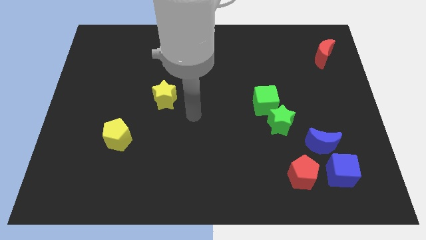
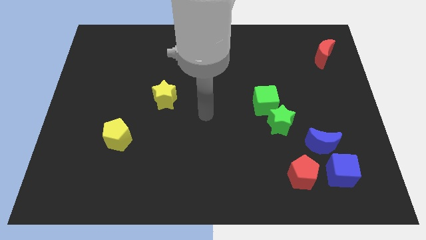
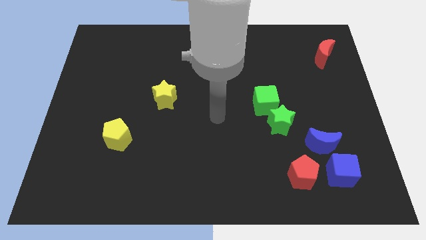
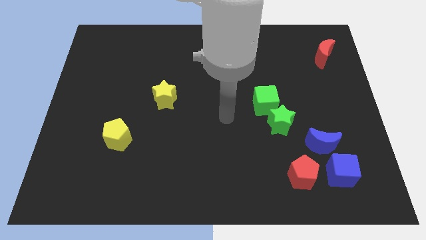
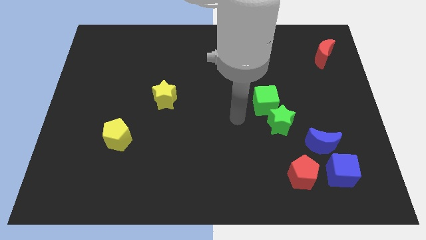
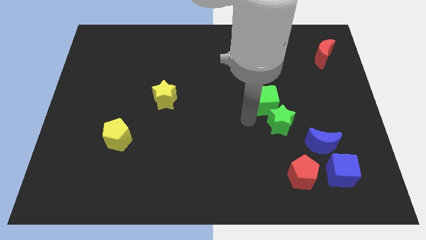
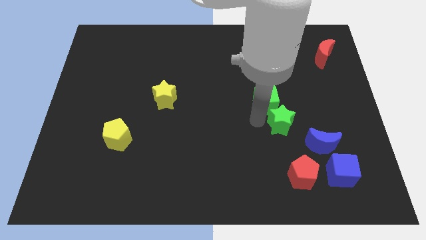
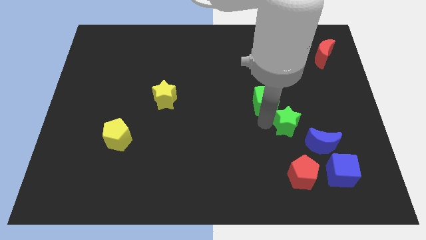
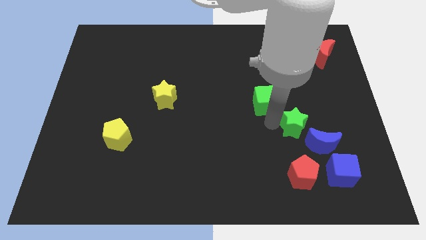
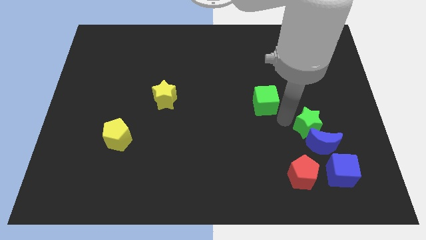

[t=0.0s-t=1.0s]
separate the green cube from the green star

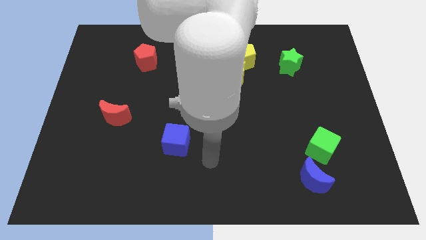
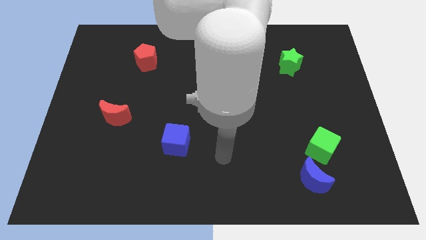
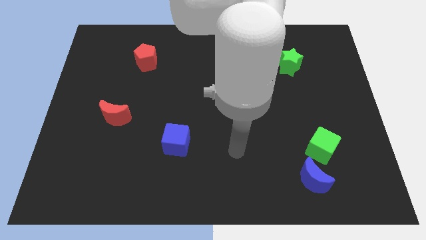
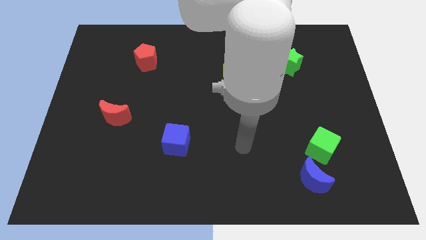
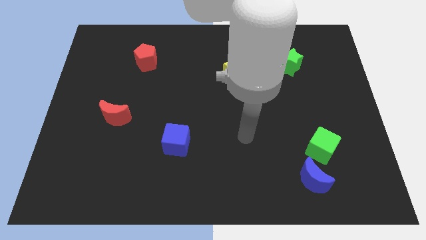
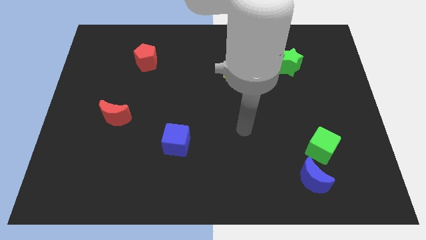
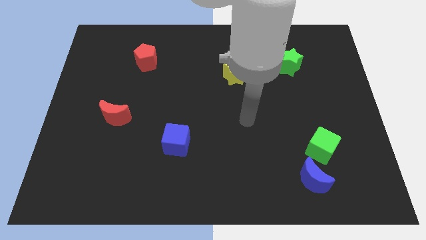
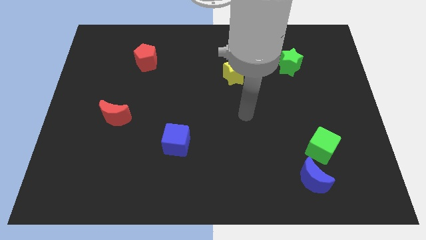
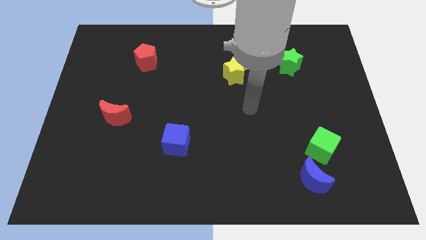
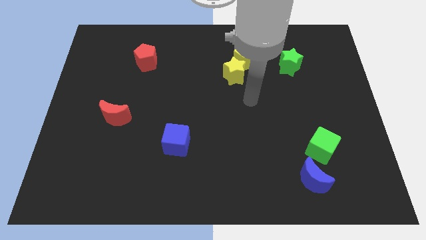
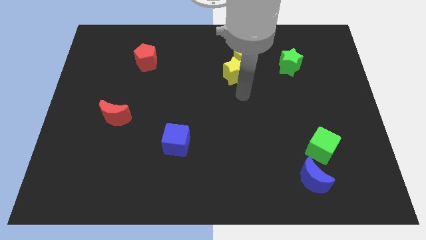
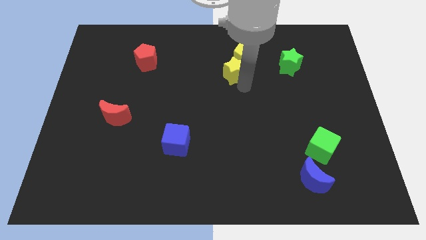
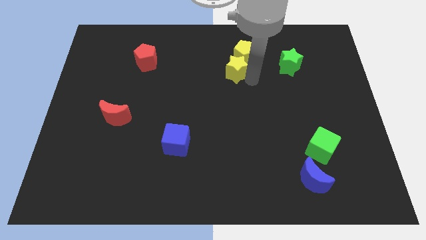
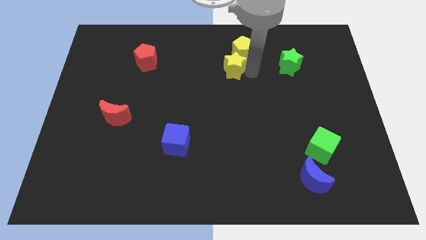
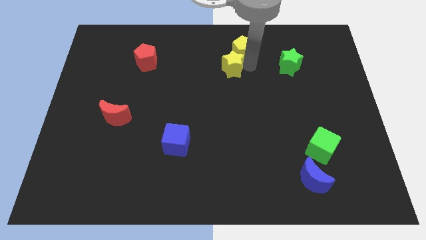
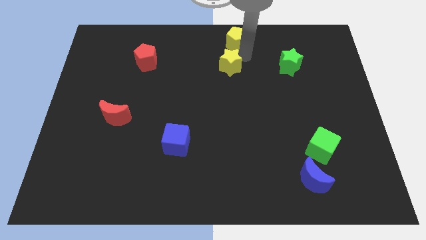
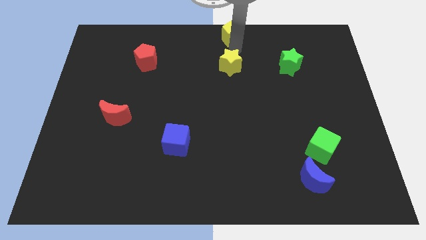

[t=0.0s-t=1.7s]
pull the yellow star apart from the yellow pentagon

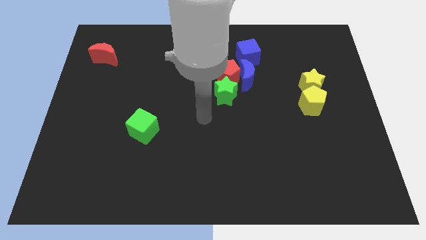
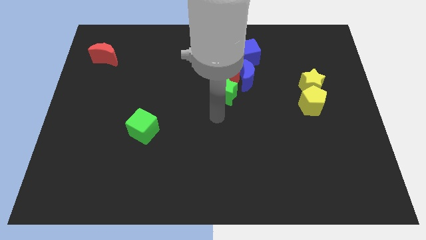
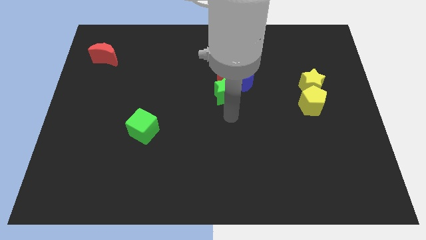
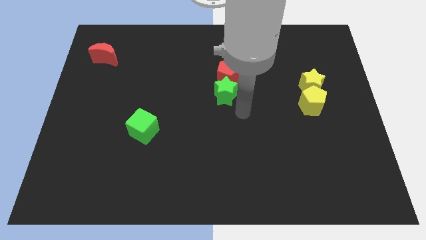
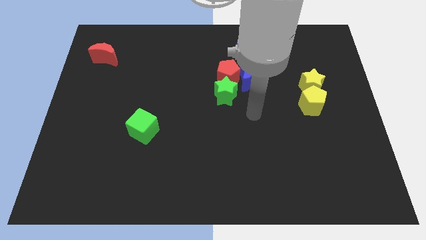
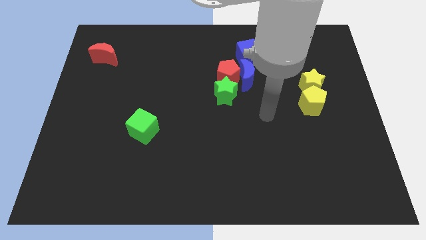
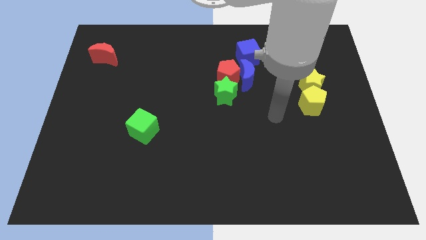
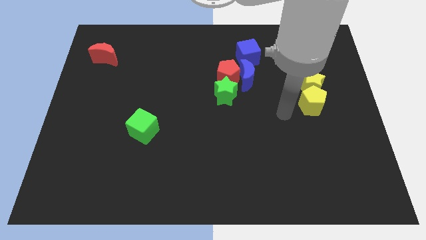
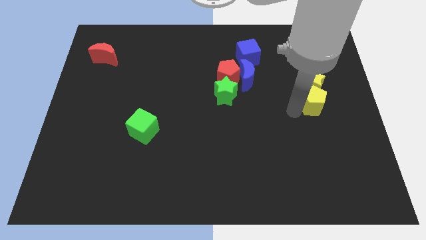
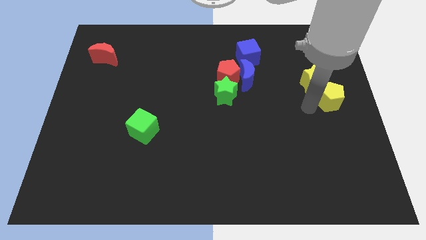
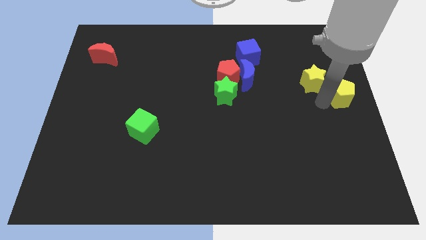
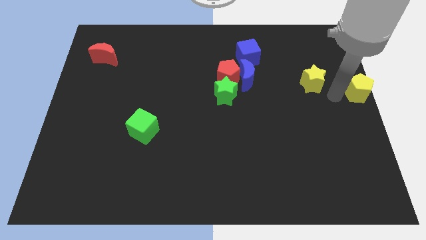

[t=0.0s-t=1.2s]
move the yellow star away from the yellow pentagon

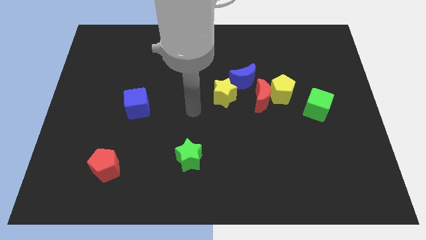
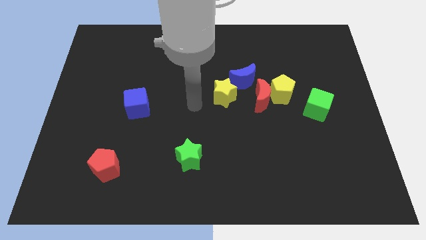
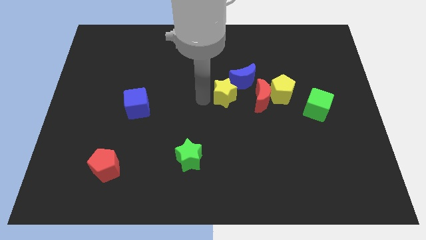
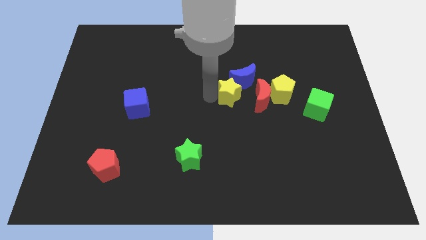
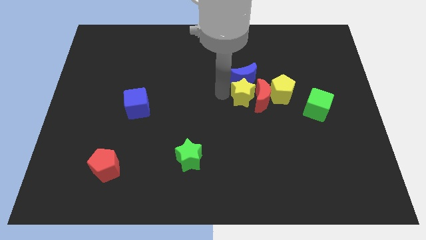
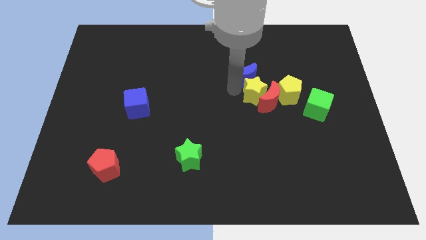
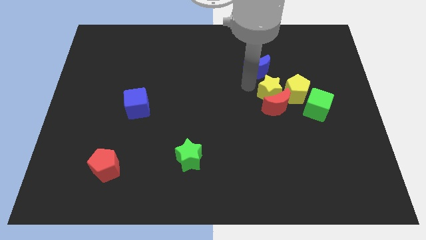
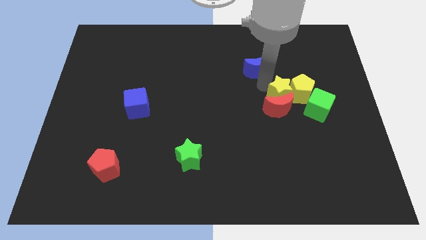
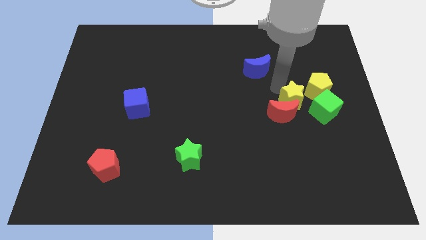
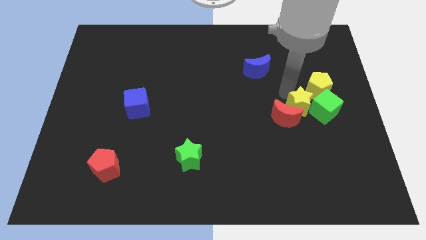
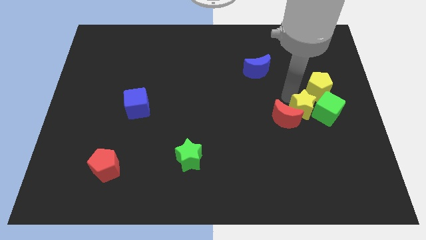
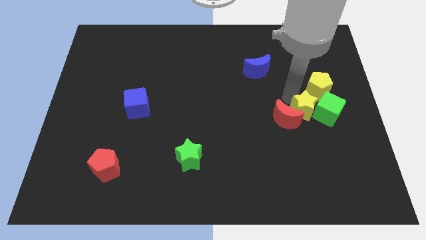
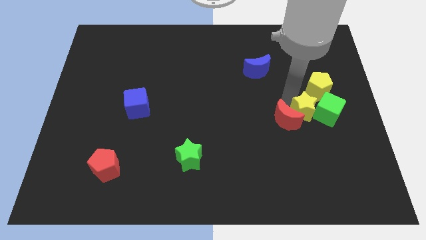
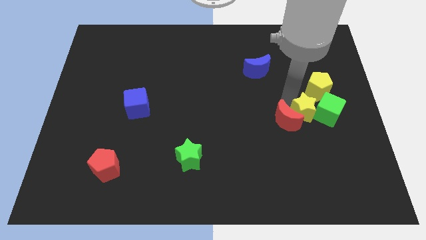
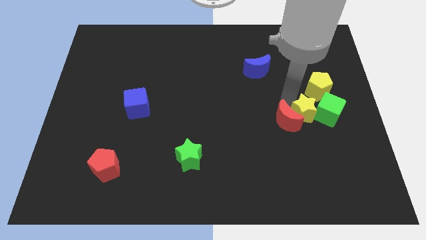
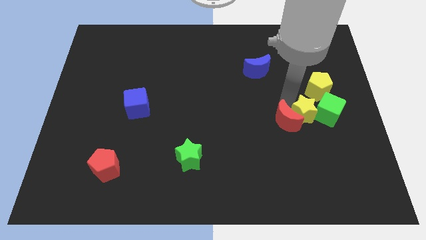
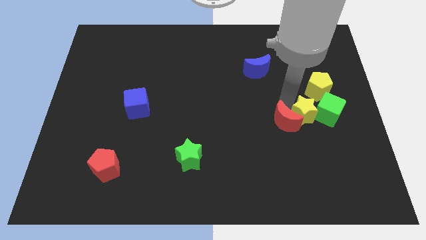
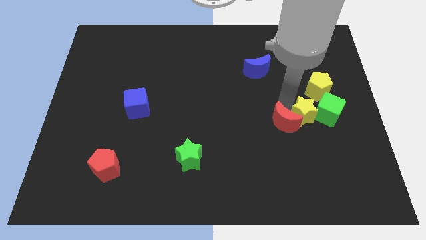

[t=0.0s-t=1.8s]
pull the red moon apart from the yellow pentagon, blue moon, and yellow star

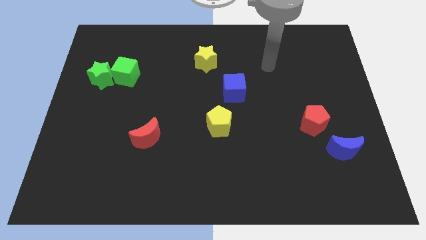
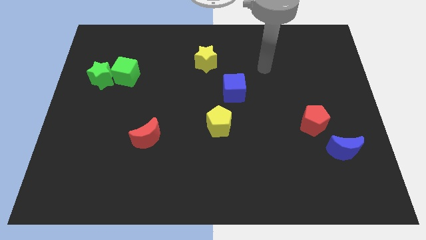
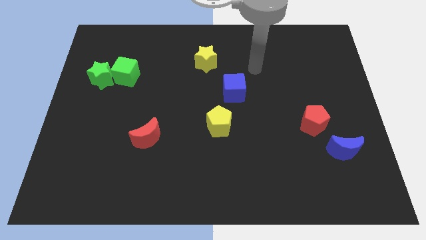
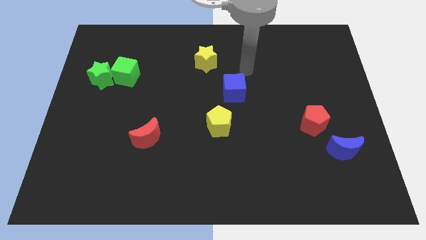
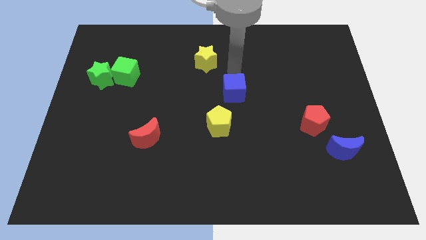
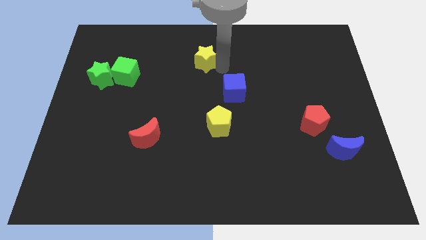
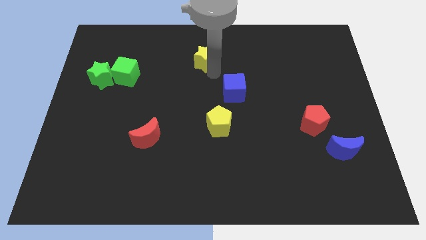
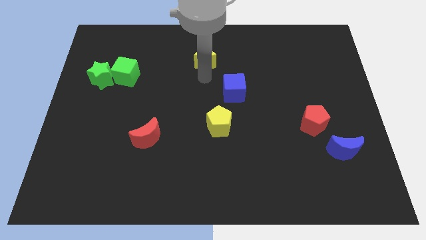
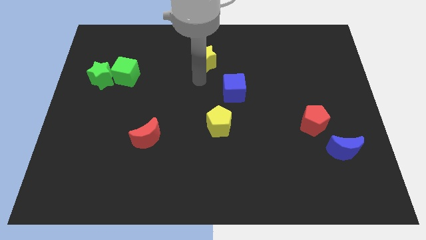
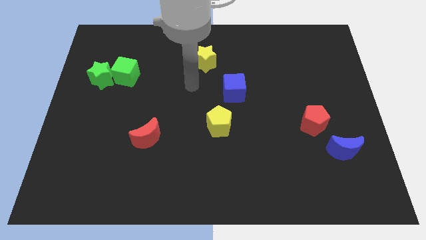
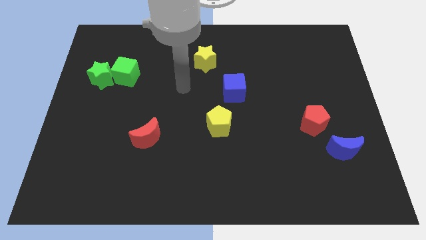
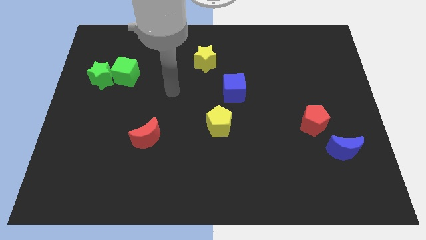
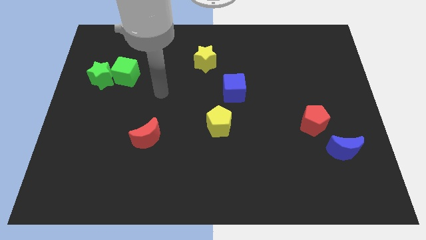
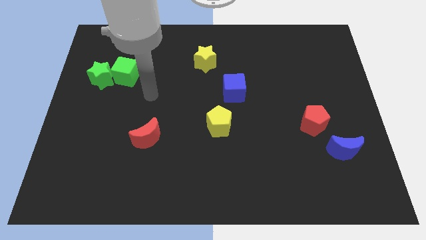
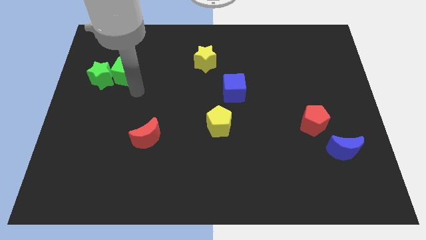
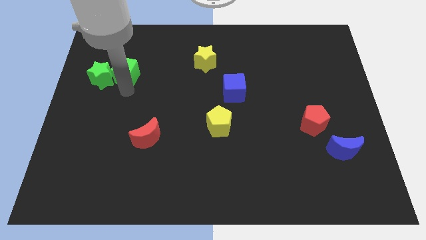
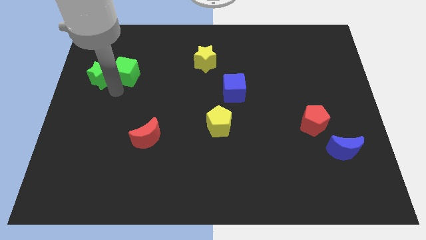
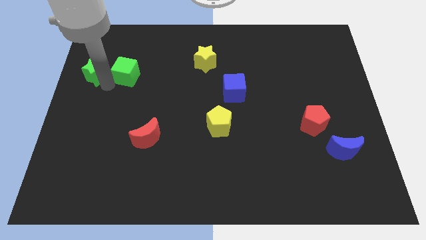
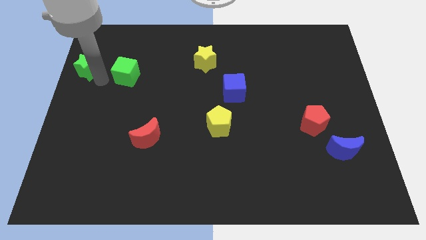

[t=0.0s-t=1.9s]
move the green cube away from the green star

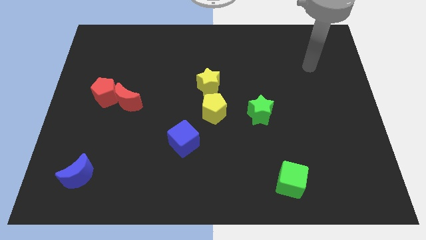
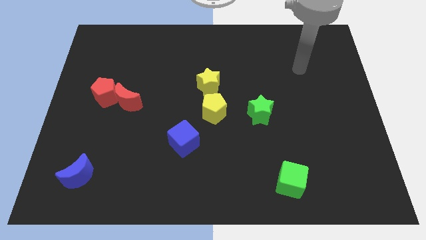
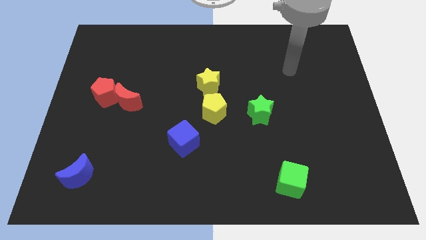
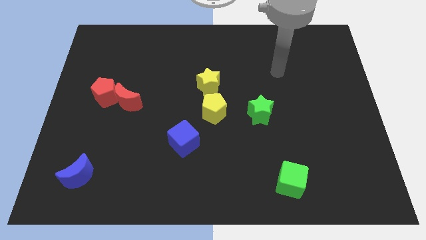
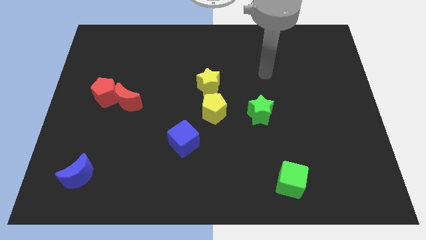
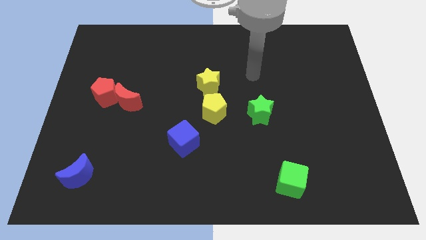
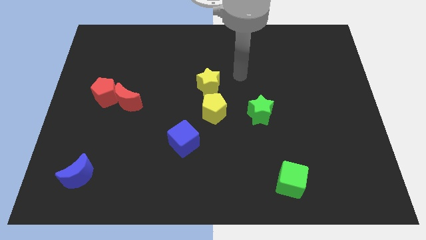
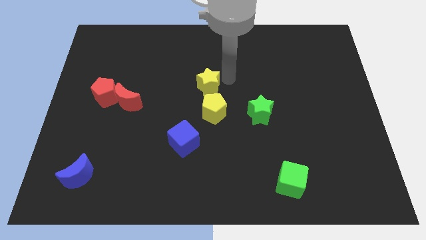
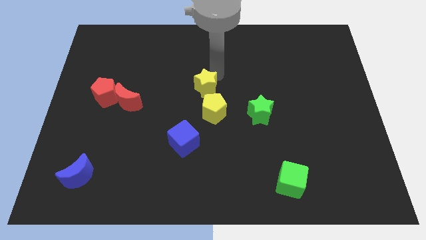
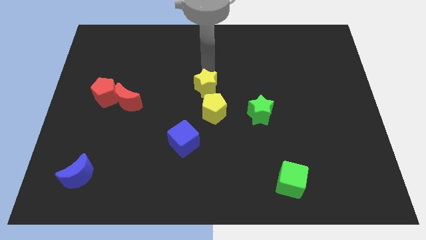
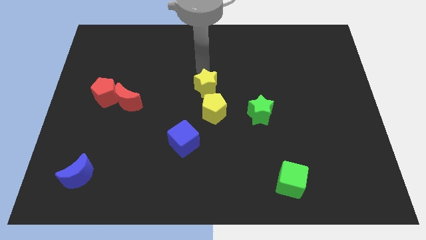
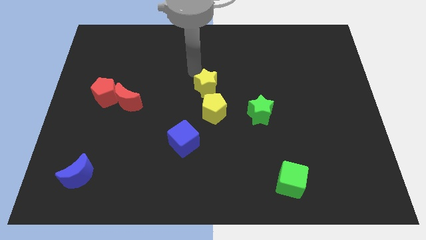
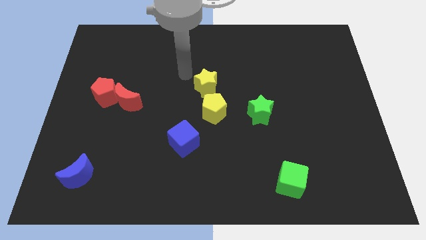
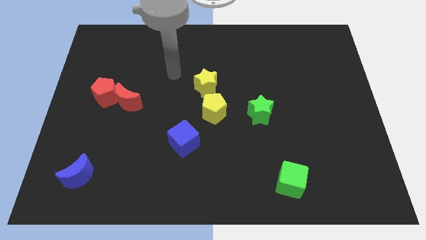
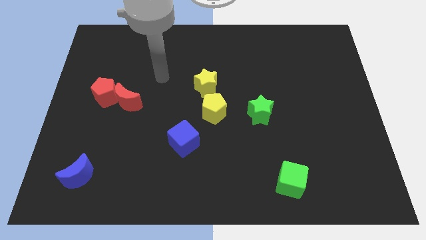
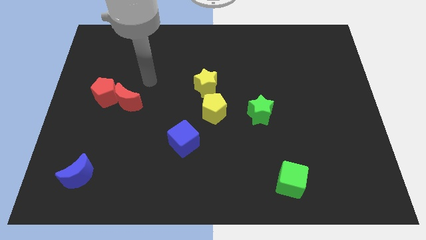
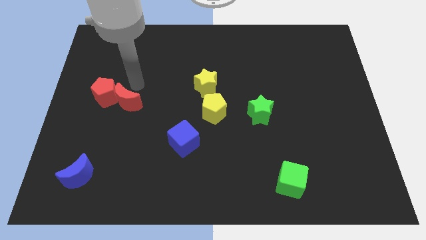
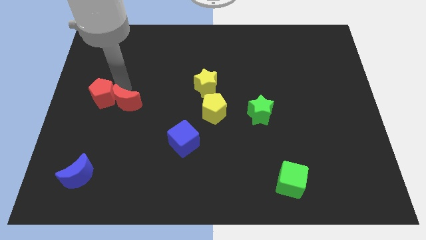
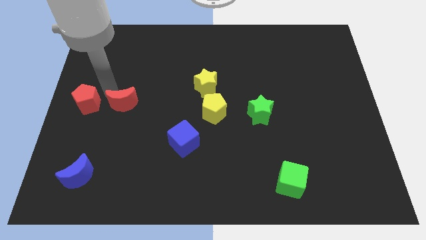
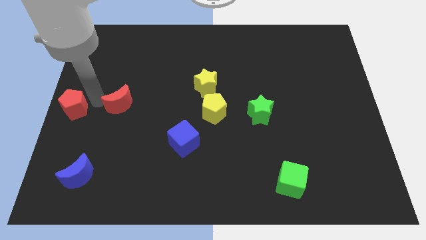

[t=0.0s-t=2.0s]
move the red moon away from the red pentagon
